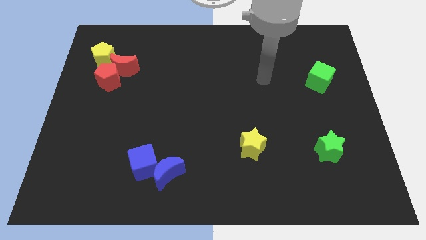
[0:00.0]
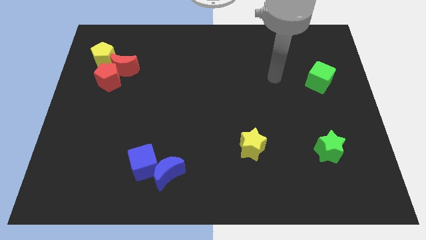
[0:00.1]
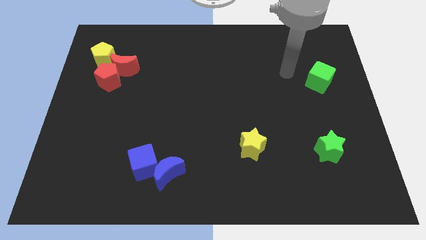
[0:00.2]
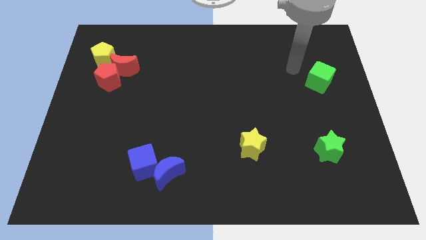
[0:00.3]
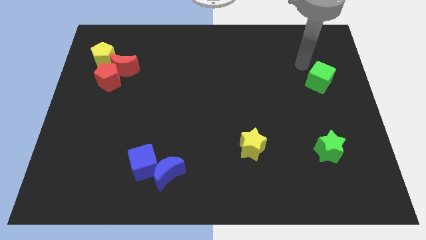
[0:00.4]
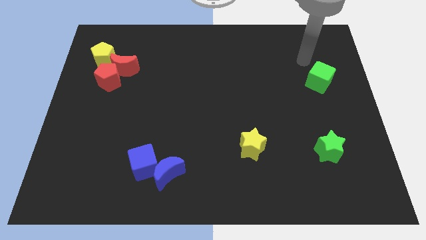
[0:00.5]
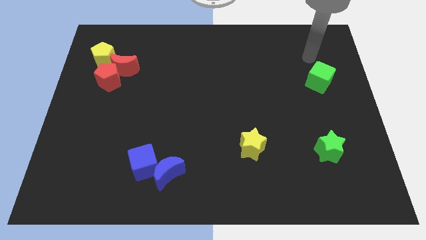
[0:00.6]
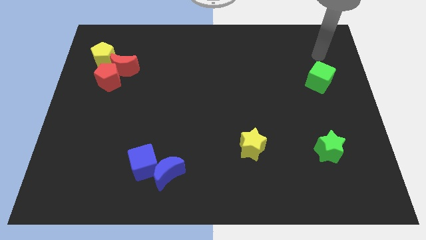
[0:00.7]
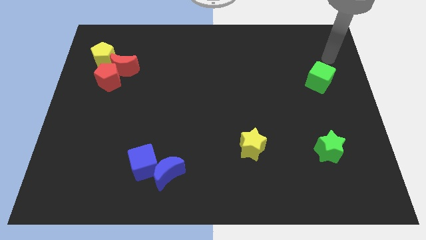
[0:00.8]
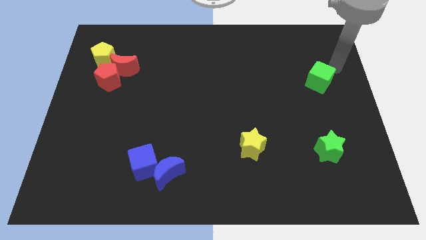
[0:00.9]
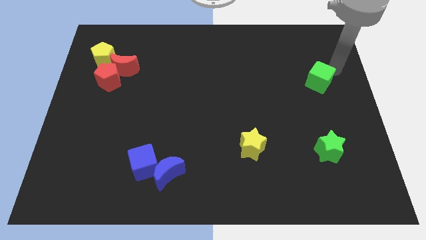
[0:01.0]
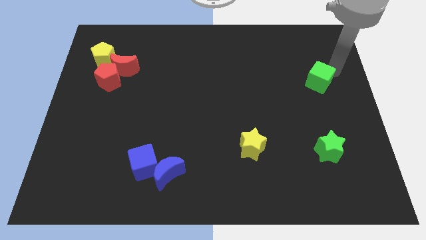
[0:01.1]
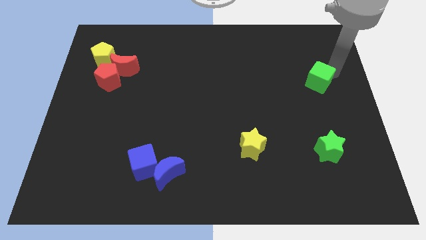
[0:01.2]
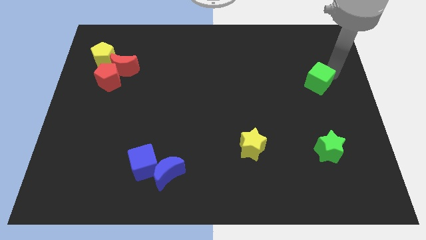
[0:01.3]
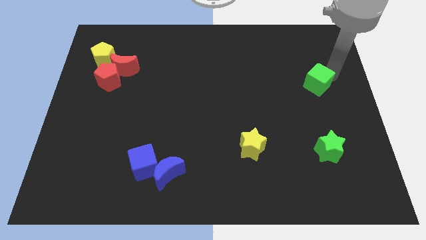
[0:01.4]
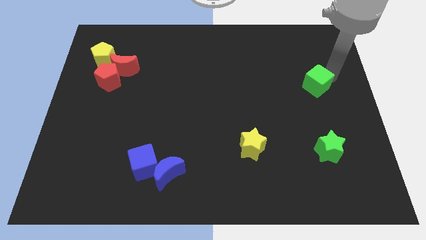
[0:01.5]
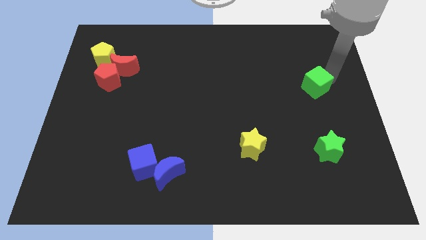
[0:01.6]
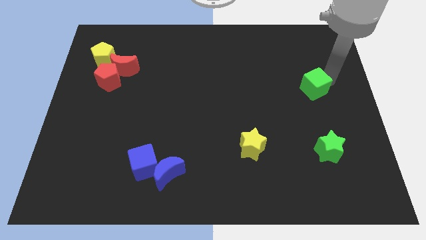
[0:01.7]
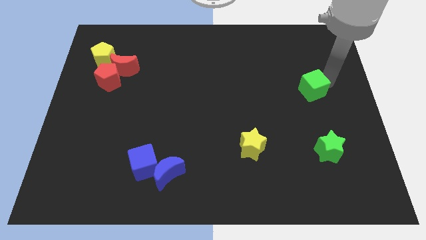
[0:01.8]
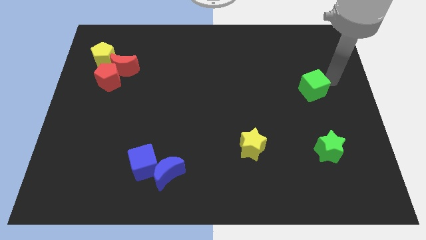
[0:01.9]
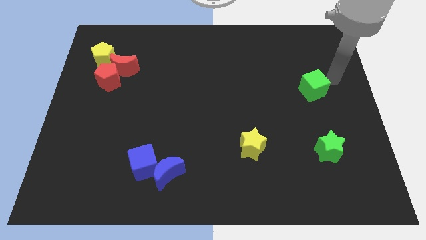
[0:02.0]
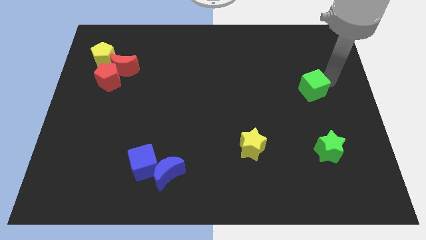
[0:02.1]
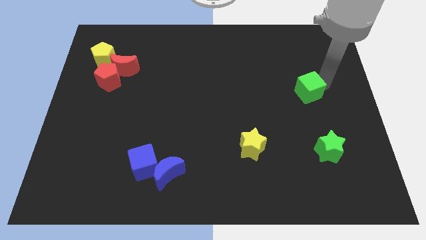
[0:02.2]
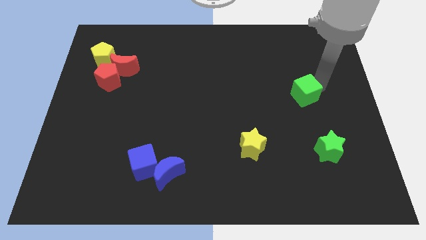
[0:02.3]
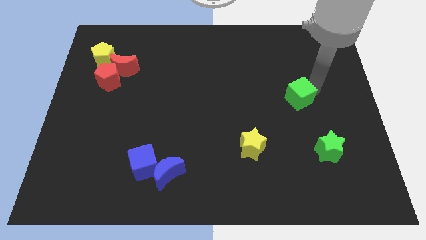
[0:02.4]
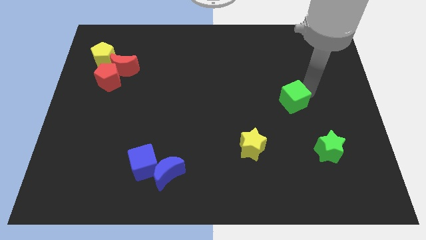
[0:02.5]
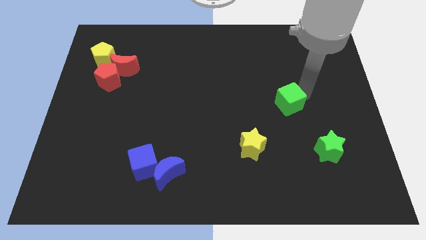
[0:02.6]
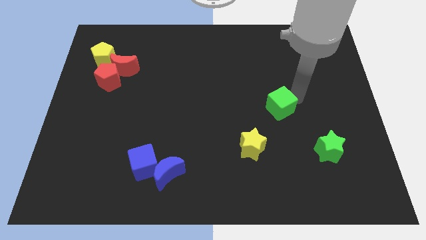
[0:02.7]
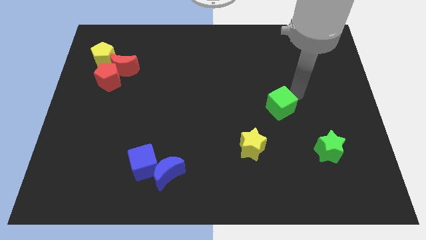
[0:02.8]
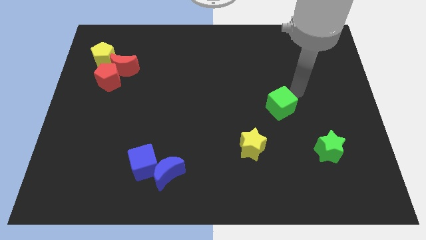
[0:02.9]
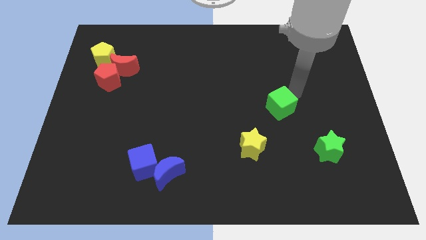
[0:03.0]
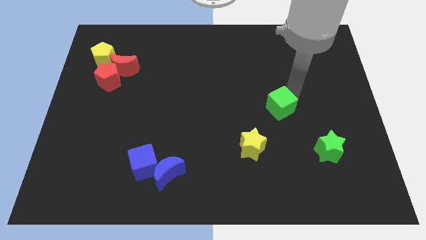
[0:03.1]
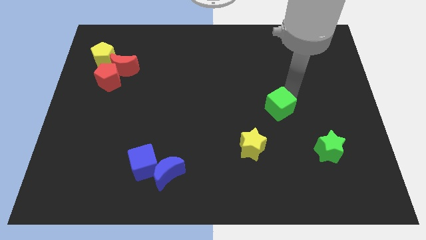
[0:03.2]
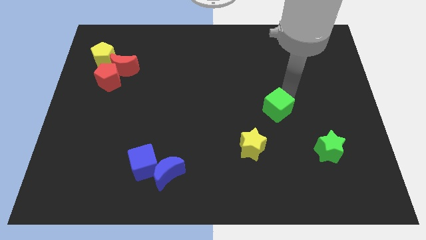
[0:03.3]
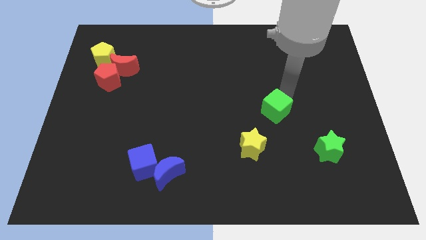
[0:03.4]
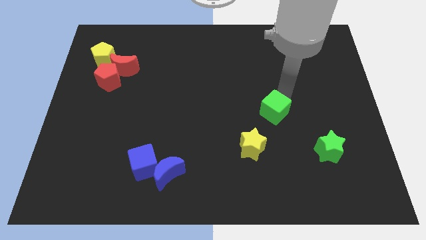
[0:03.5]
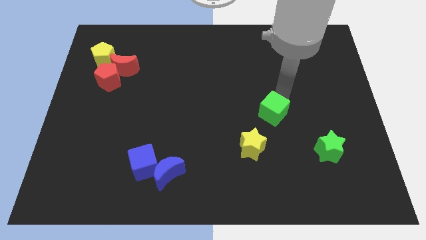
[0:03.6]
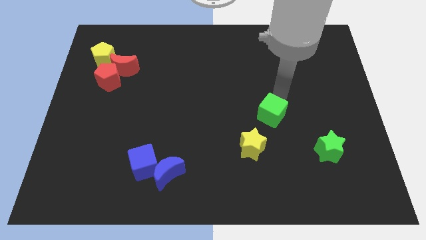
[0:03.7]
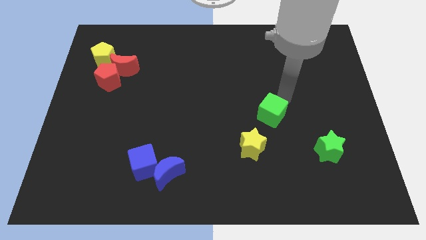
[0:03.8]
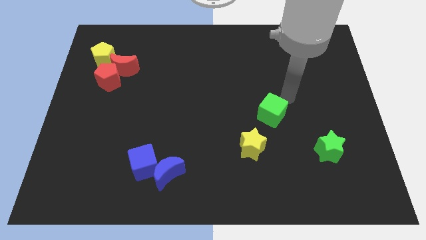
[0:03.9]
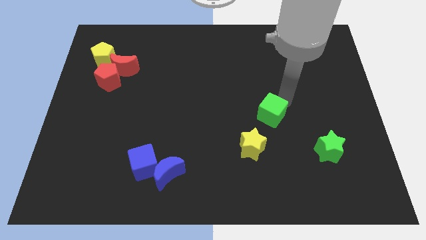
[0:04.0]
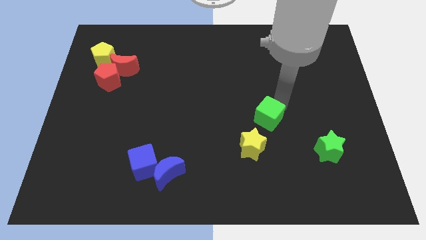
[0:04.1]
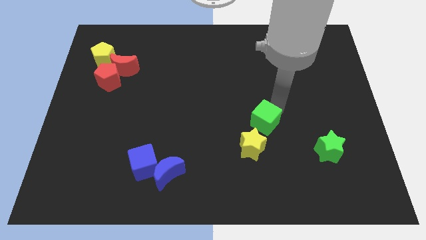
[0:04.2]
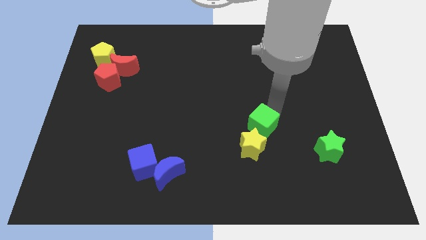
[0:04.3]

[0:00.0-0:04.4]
slide the green cube down and then left

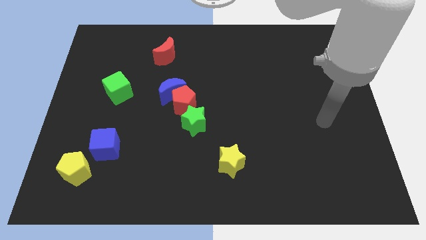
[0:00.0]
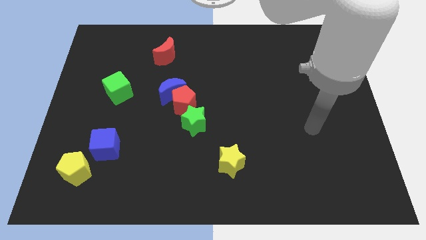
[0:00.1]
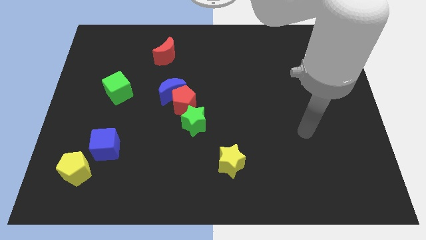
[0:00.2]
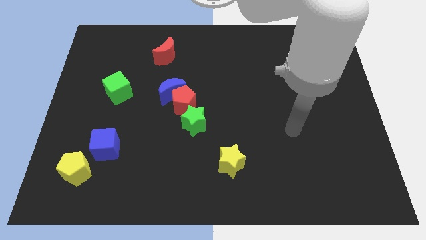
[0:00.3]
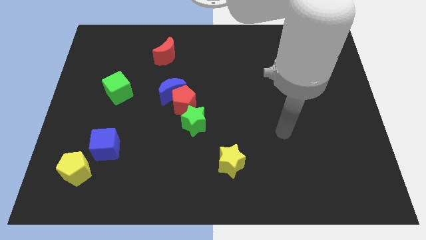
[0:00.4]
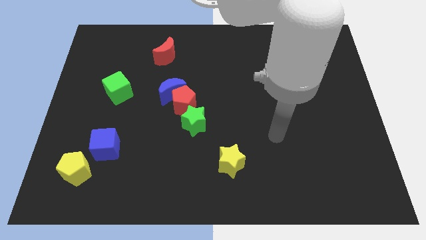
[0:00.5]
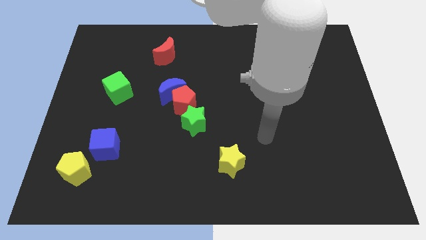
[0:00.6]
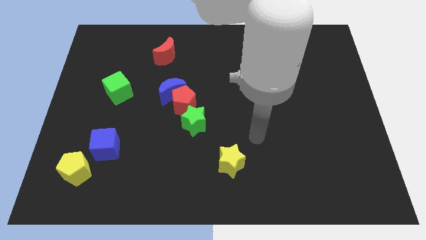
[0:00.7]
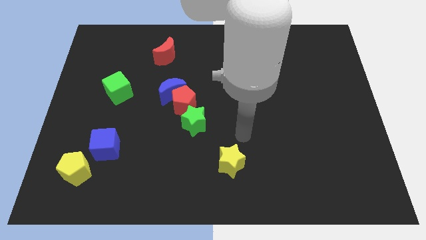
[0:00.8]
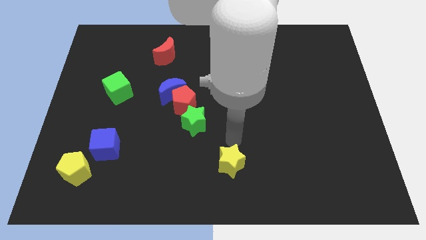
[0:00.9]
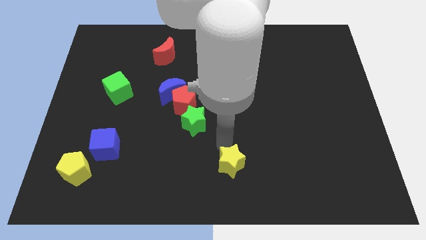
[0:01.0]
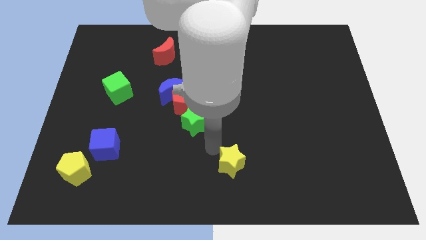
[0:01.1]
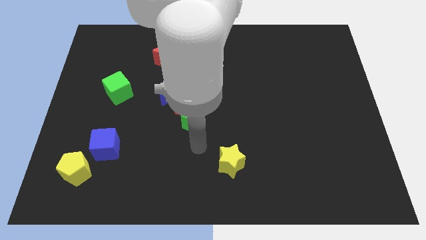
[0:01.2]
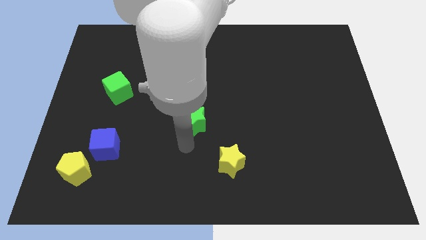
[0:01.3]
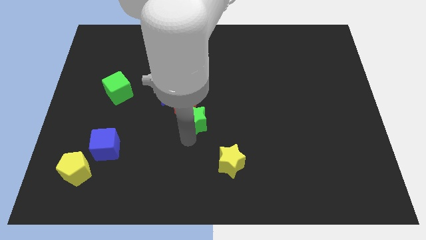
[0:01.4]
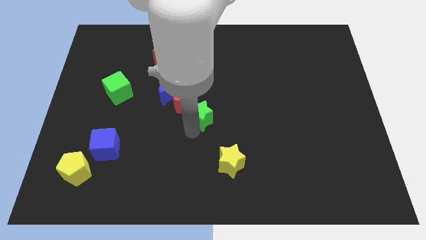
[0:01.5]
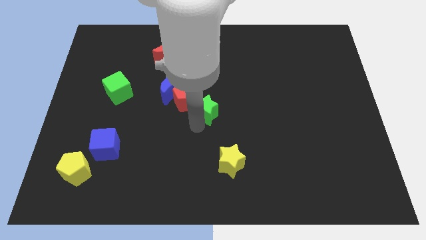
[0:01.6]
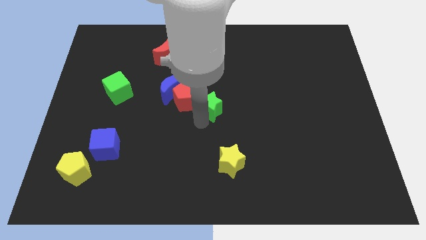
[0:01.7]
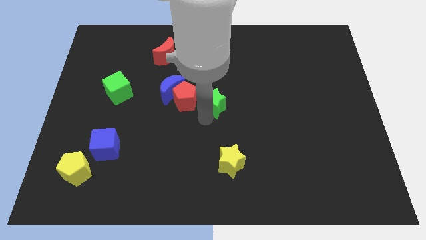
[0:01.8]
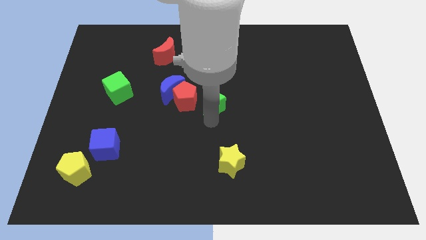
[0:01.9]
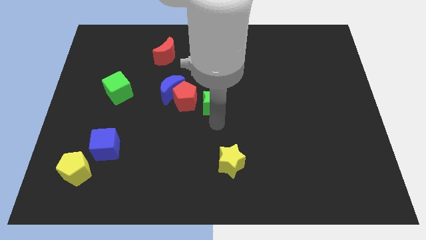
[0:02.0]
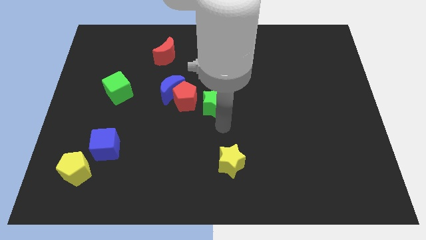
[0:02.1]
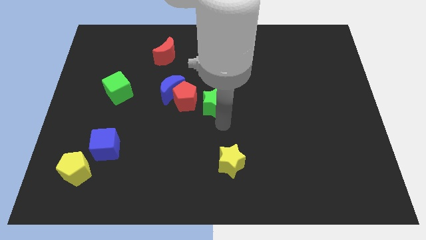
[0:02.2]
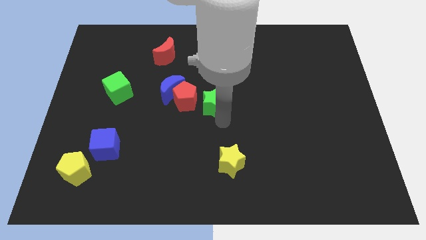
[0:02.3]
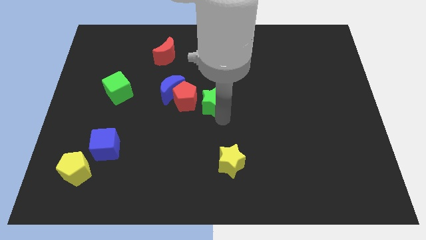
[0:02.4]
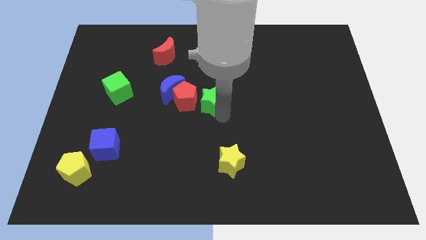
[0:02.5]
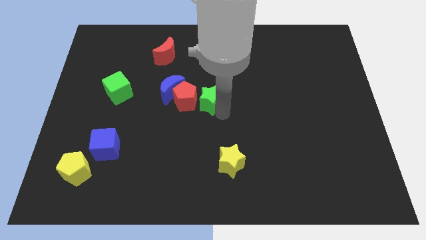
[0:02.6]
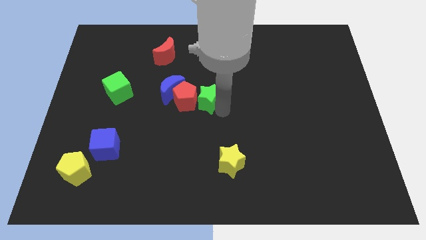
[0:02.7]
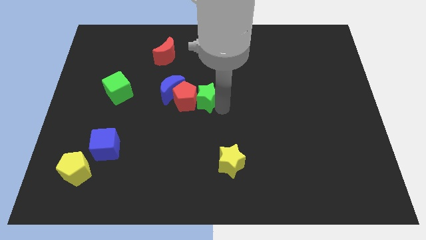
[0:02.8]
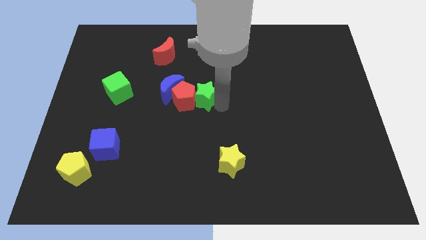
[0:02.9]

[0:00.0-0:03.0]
slightly push the green star upwards

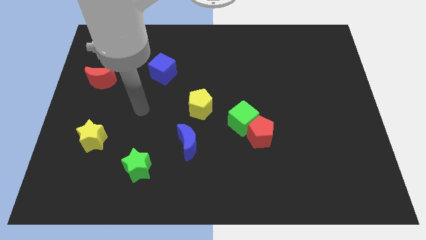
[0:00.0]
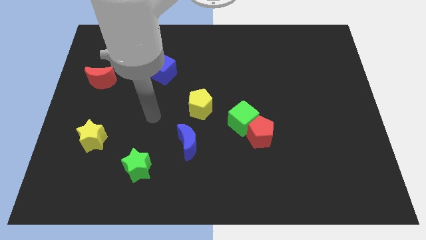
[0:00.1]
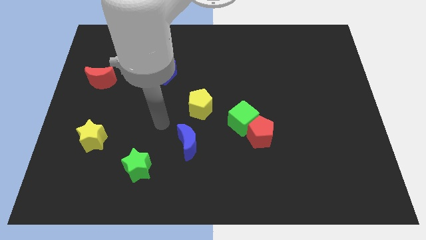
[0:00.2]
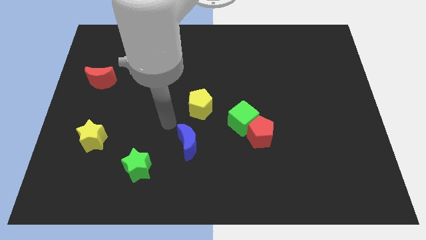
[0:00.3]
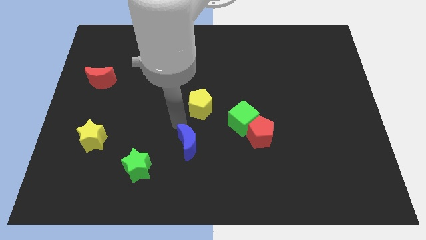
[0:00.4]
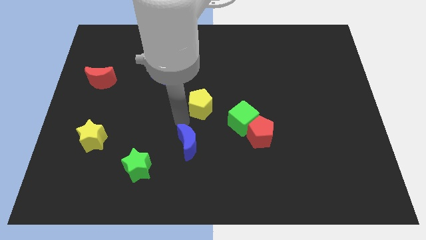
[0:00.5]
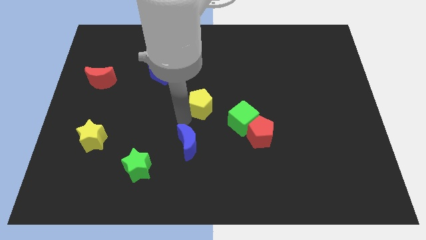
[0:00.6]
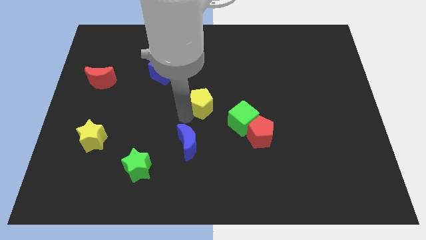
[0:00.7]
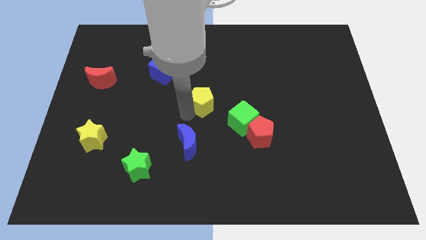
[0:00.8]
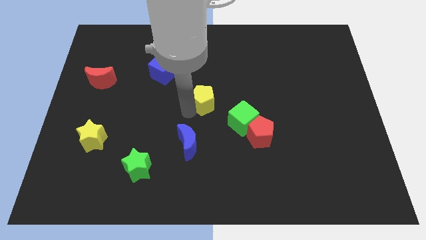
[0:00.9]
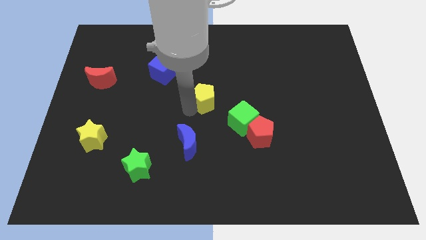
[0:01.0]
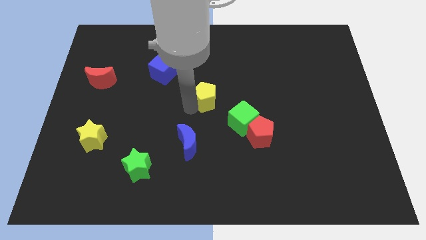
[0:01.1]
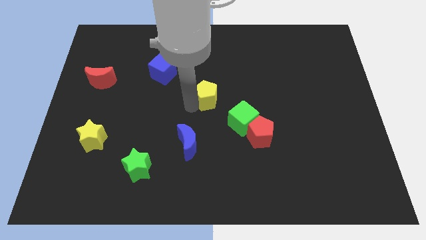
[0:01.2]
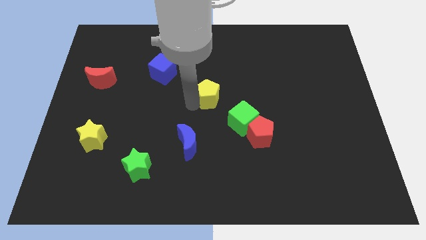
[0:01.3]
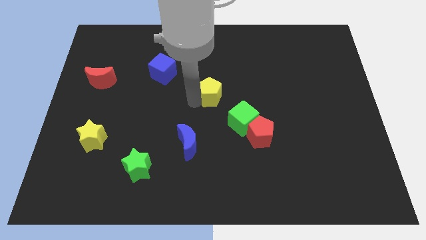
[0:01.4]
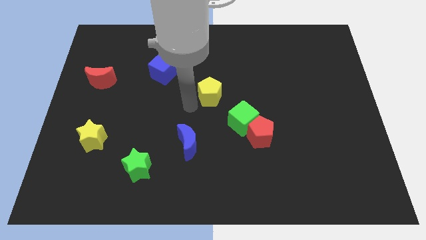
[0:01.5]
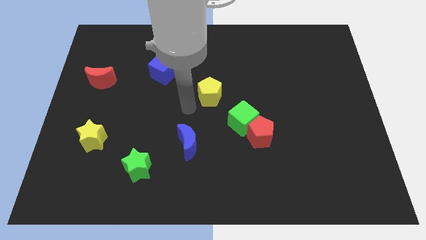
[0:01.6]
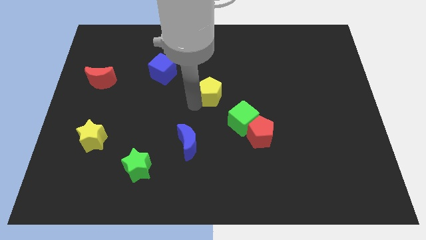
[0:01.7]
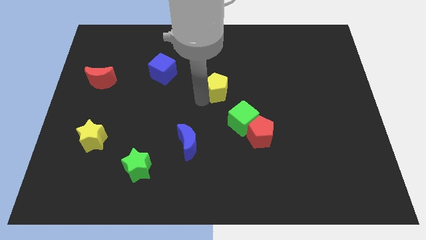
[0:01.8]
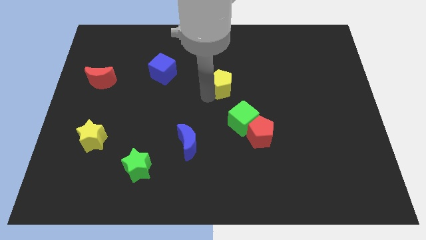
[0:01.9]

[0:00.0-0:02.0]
move the yellow pentagon upwards and to the right a little
